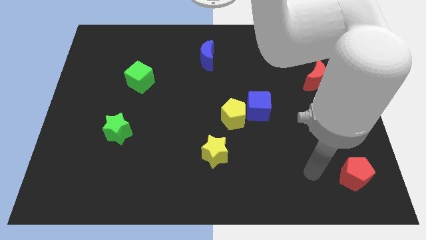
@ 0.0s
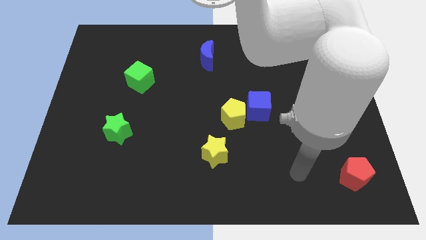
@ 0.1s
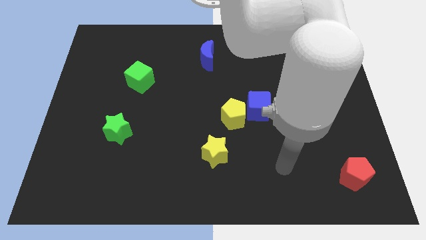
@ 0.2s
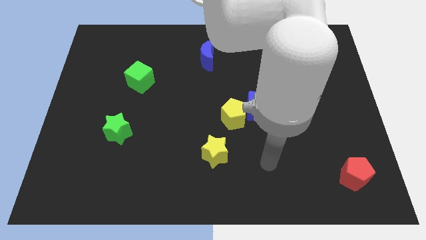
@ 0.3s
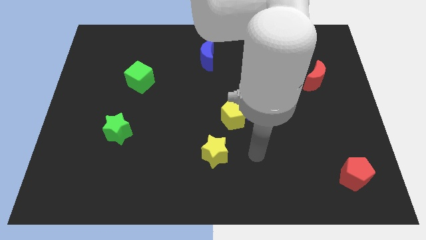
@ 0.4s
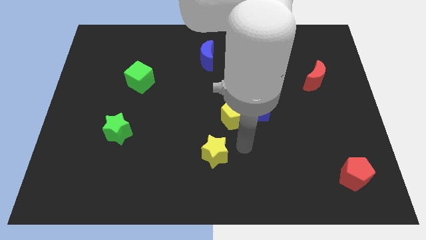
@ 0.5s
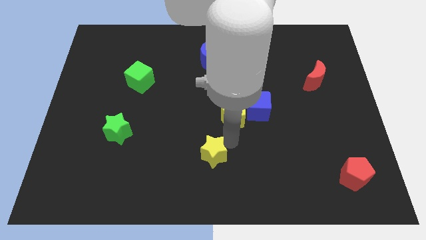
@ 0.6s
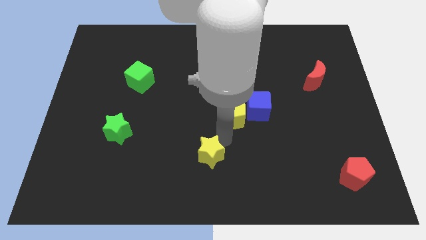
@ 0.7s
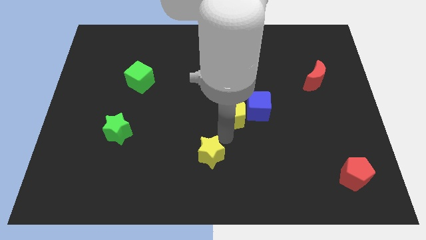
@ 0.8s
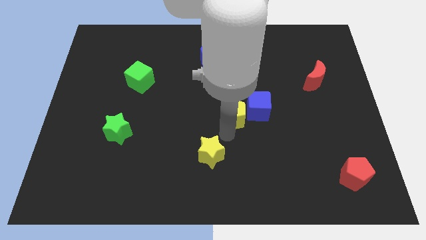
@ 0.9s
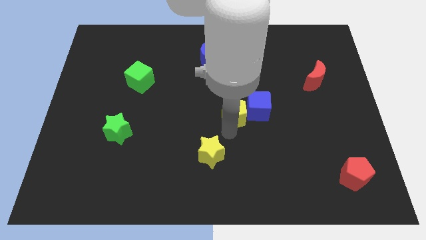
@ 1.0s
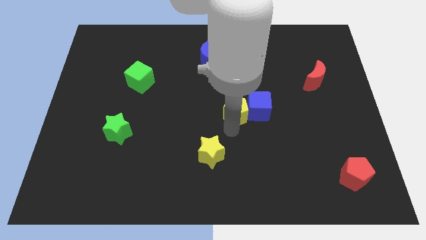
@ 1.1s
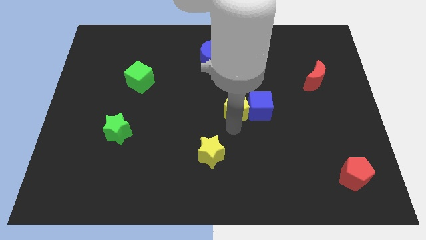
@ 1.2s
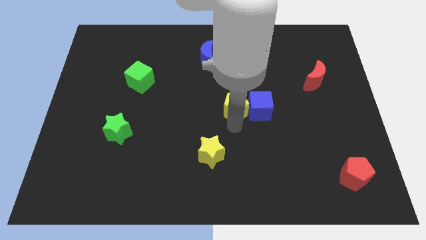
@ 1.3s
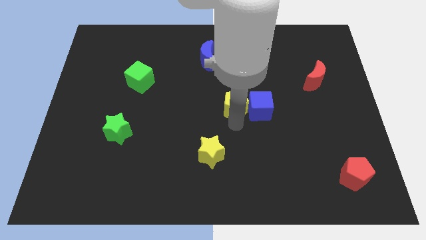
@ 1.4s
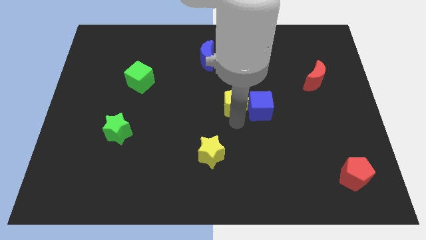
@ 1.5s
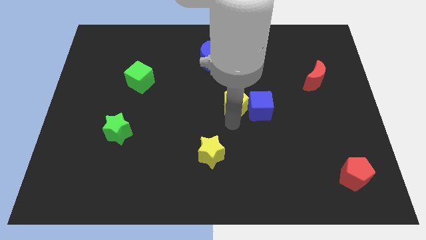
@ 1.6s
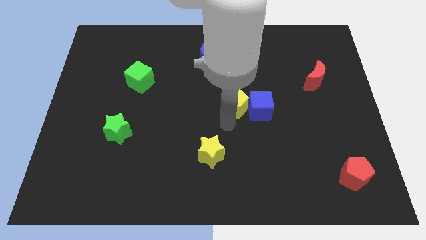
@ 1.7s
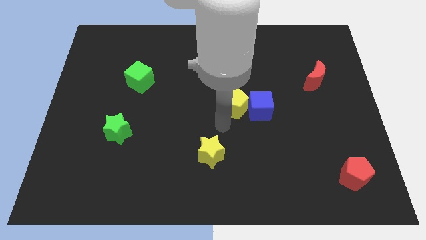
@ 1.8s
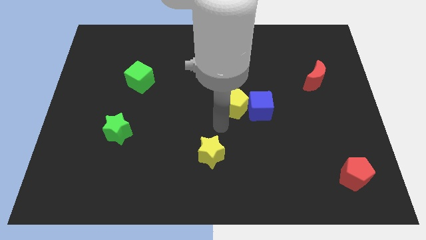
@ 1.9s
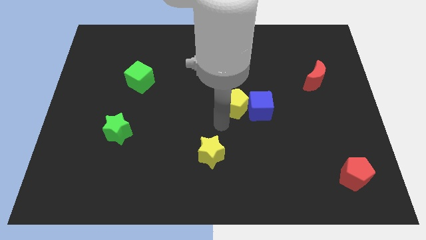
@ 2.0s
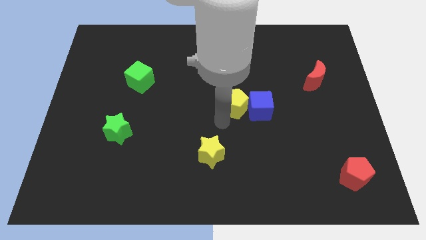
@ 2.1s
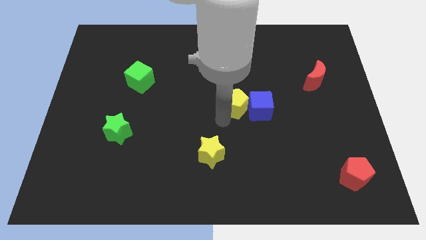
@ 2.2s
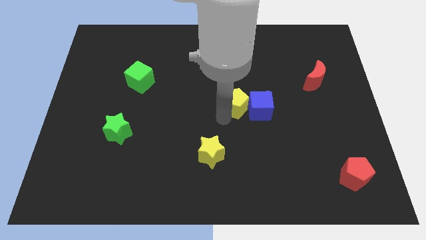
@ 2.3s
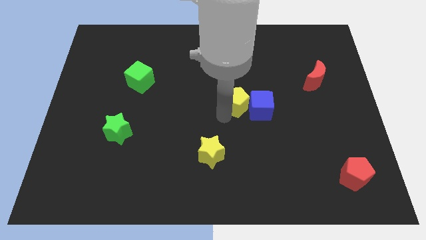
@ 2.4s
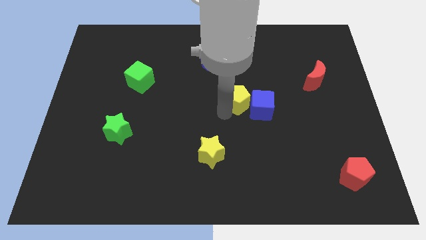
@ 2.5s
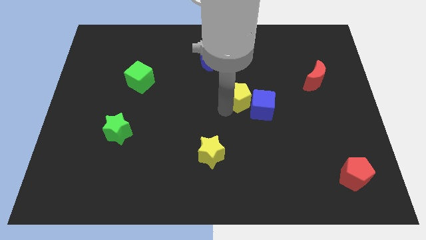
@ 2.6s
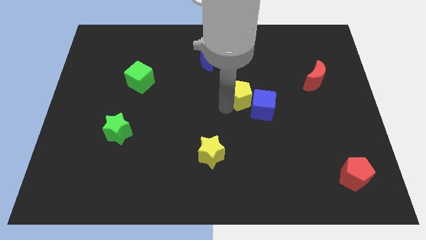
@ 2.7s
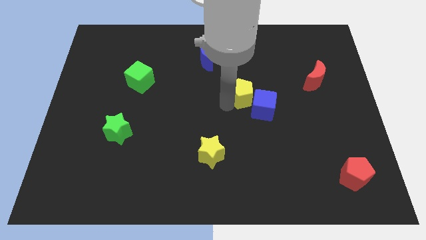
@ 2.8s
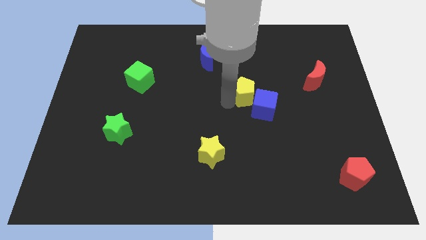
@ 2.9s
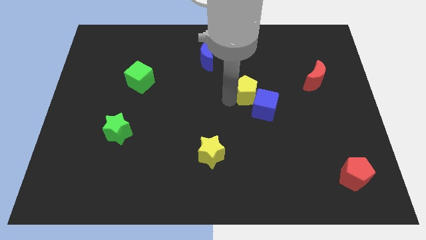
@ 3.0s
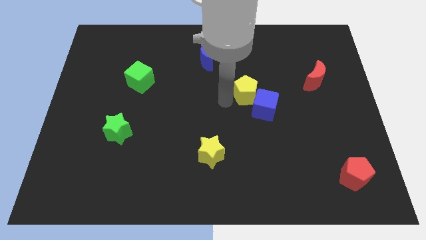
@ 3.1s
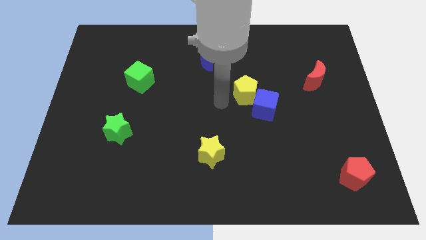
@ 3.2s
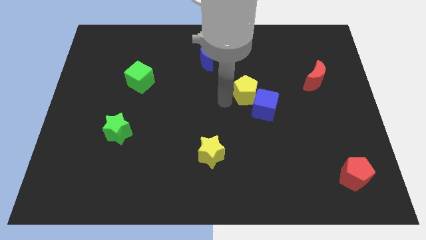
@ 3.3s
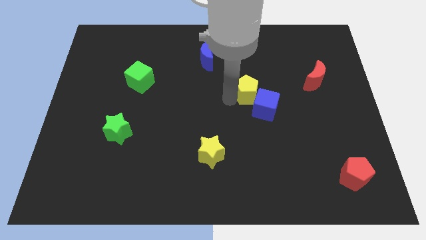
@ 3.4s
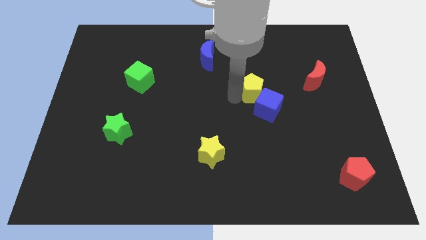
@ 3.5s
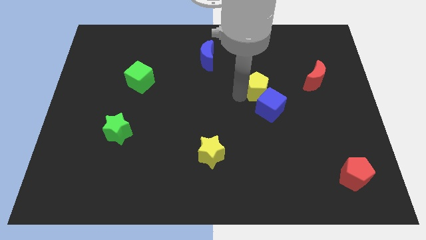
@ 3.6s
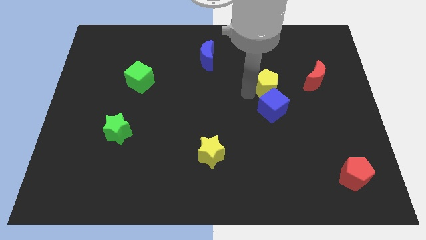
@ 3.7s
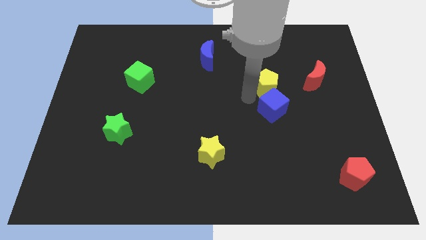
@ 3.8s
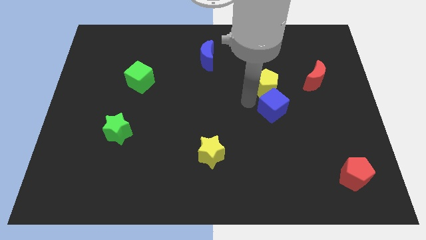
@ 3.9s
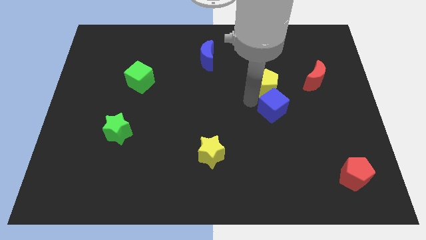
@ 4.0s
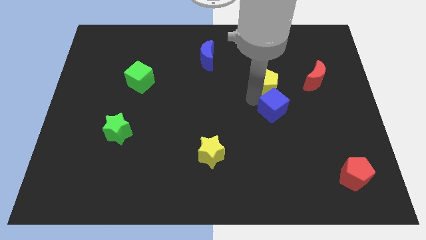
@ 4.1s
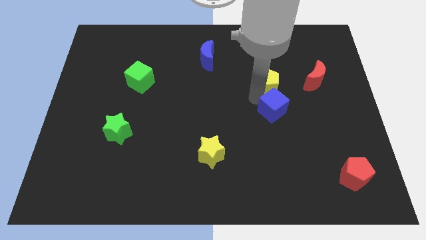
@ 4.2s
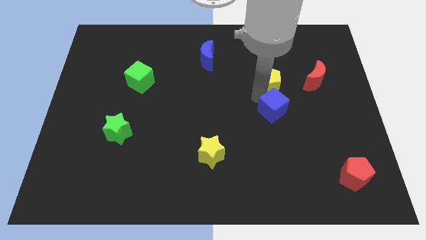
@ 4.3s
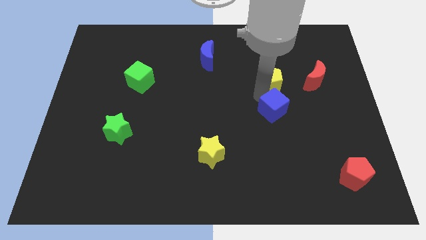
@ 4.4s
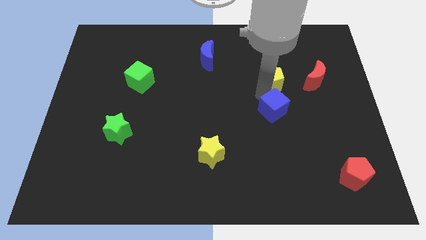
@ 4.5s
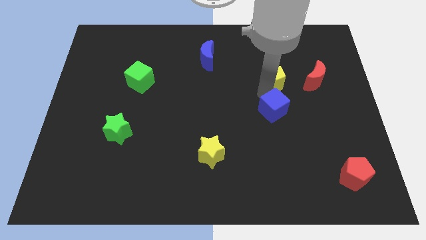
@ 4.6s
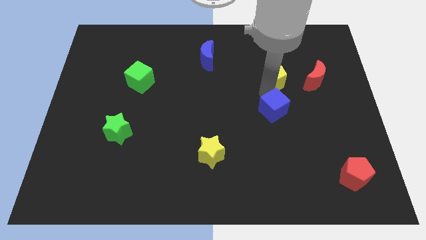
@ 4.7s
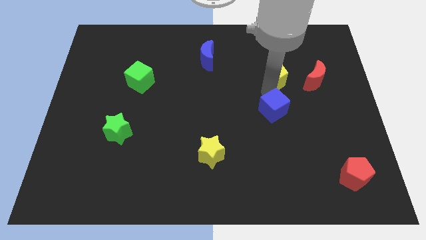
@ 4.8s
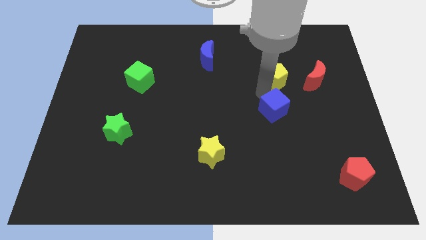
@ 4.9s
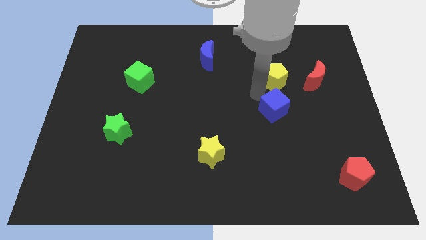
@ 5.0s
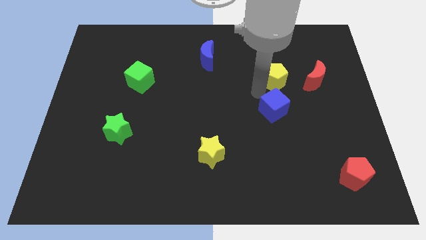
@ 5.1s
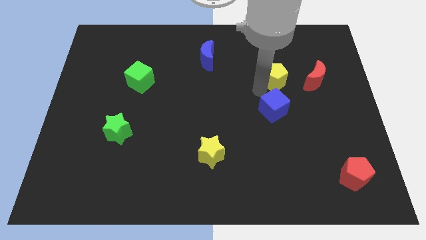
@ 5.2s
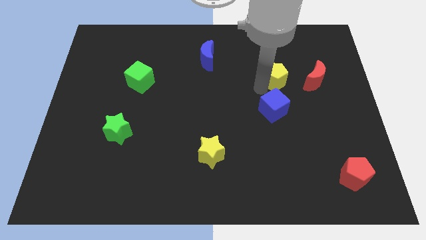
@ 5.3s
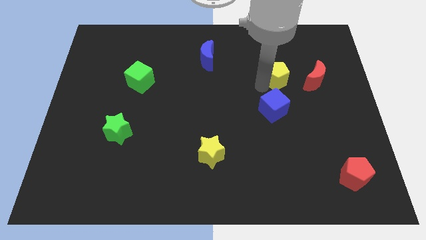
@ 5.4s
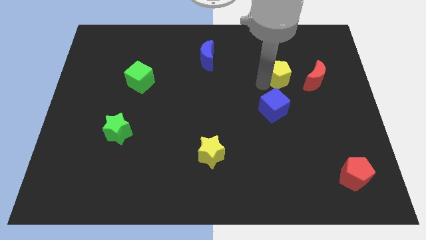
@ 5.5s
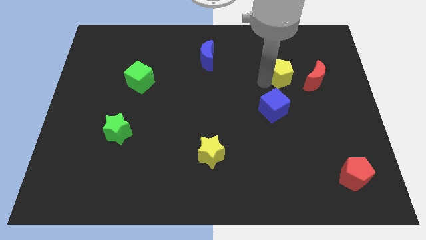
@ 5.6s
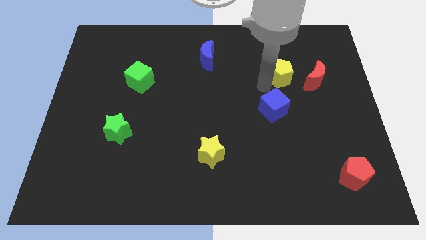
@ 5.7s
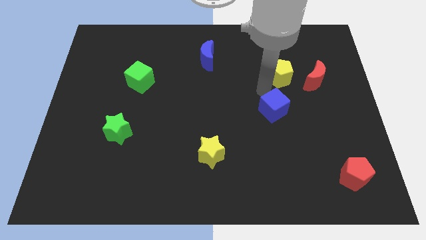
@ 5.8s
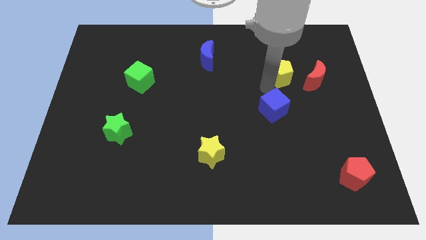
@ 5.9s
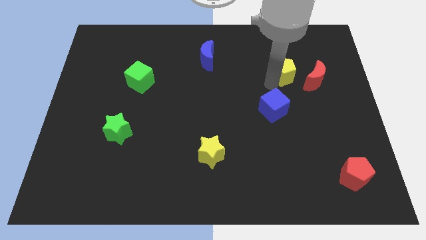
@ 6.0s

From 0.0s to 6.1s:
put the yellow pentagon to the top left of the red moon

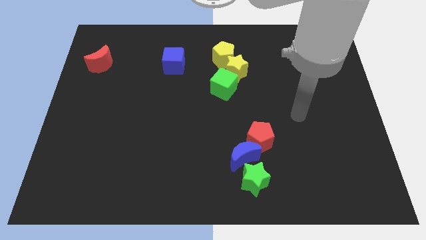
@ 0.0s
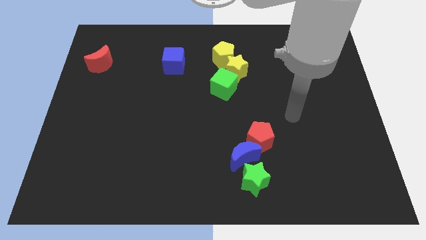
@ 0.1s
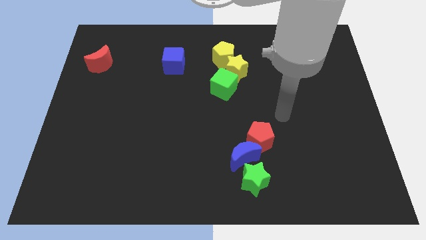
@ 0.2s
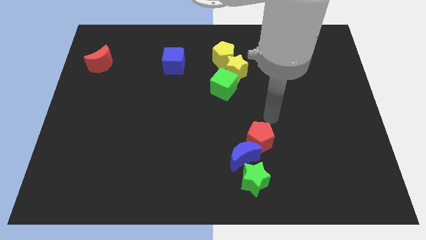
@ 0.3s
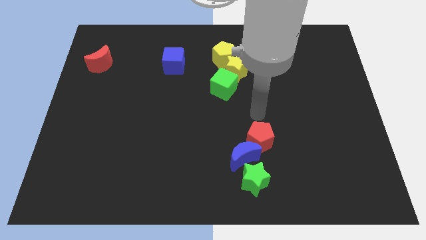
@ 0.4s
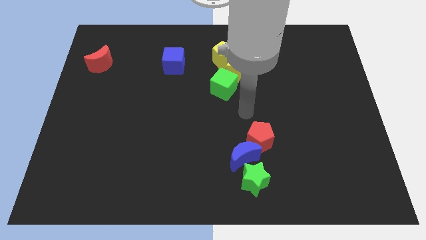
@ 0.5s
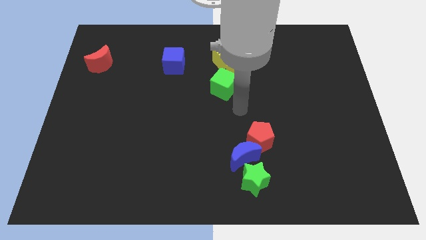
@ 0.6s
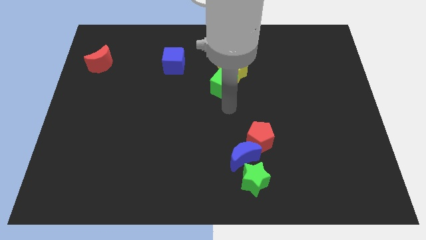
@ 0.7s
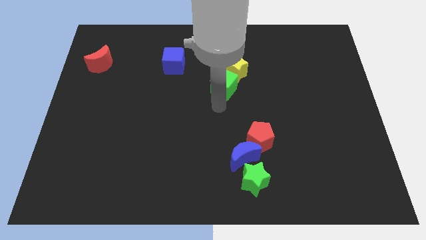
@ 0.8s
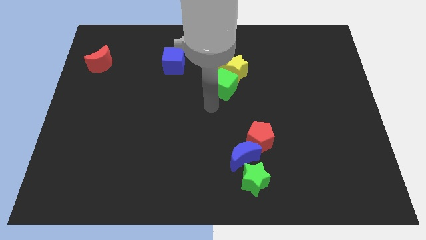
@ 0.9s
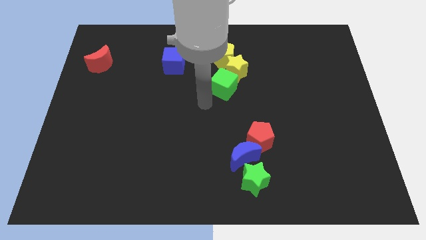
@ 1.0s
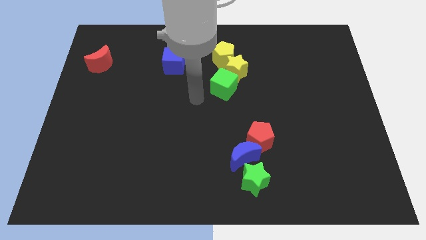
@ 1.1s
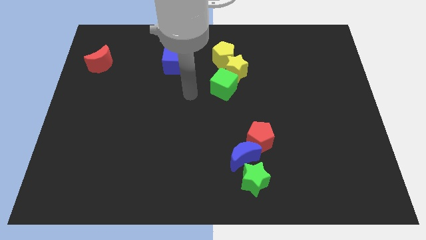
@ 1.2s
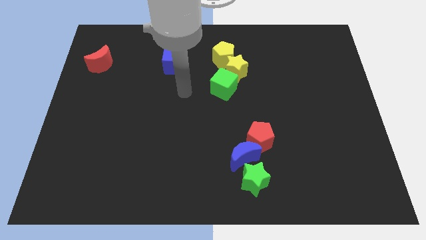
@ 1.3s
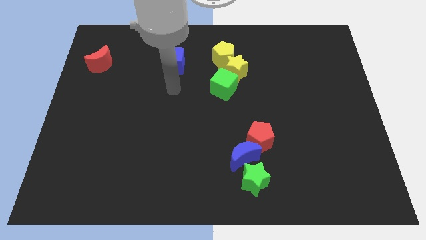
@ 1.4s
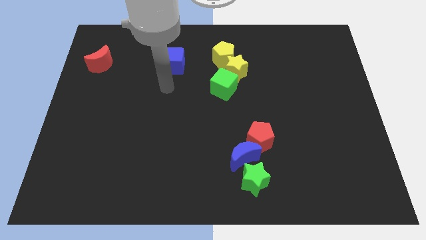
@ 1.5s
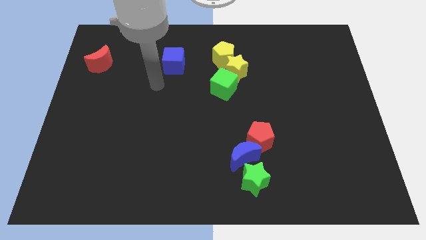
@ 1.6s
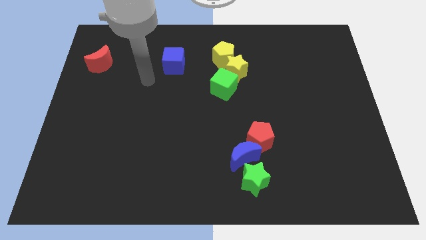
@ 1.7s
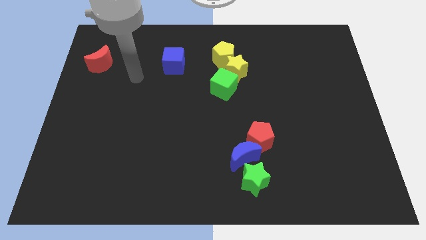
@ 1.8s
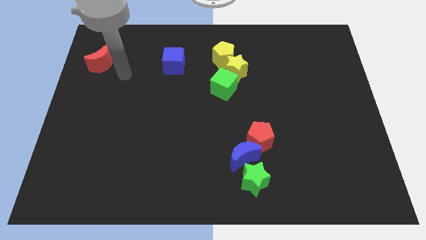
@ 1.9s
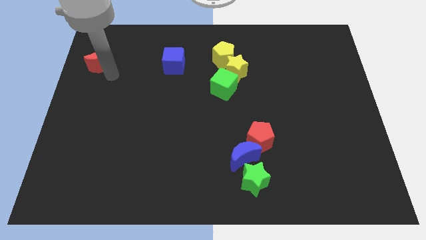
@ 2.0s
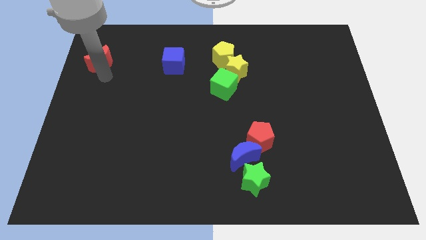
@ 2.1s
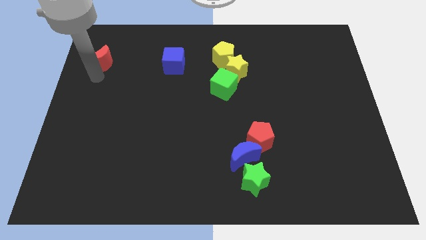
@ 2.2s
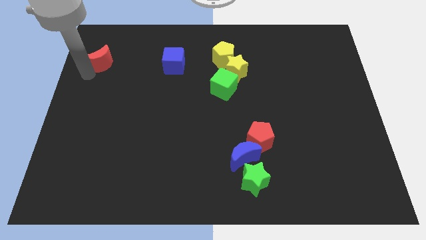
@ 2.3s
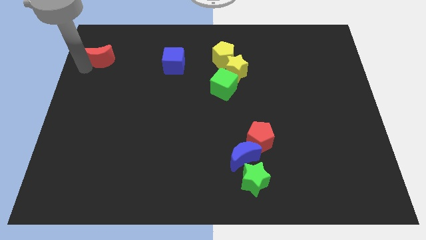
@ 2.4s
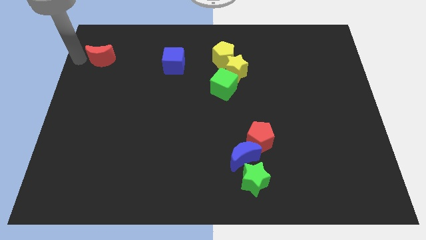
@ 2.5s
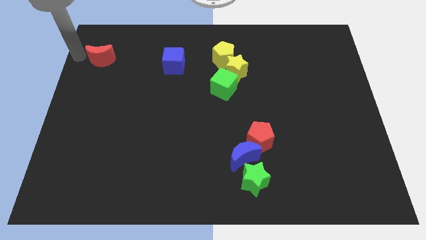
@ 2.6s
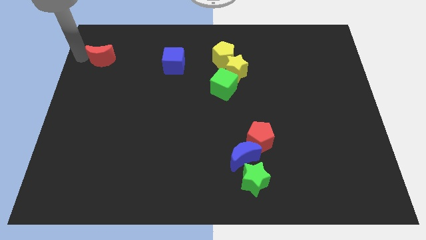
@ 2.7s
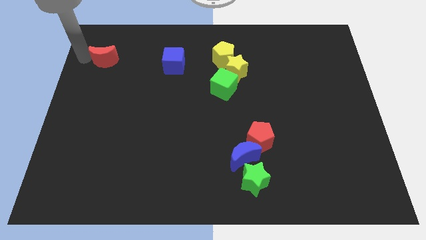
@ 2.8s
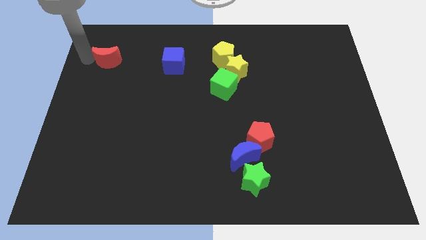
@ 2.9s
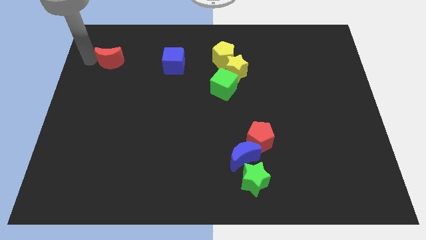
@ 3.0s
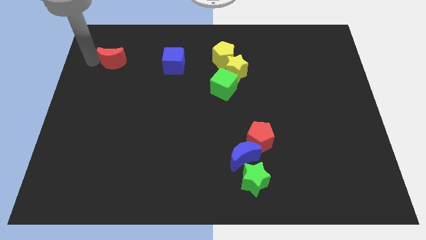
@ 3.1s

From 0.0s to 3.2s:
slide the red moon to the left side of the blue cube
